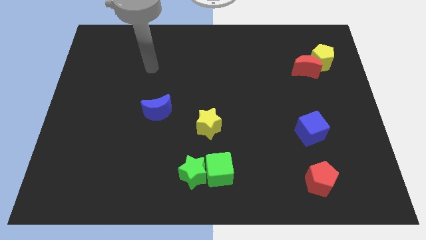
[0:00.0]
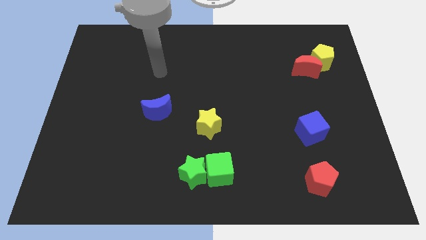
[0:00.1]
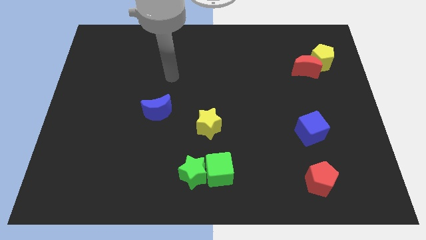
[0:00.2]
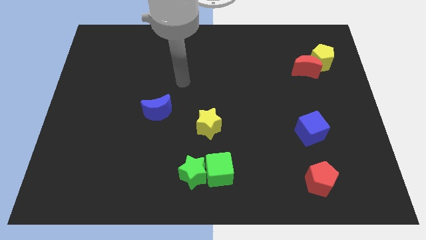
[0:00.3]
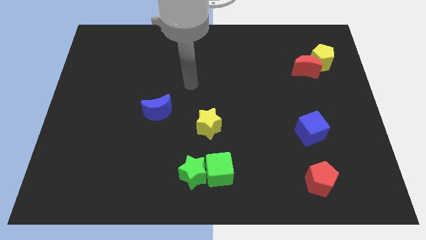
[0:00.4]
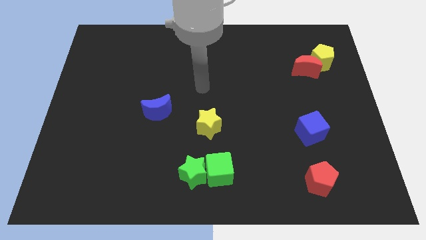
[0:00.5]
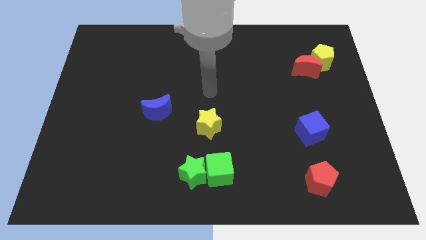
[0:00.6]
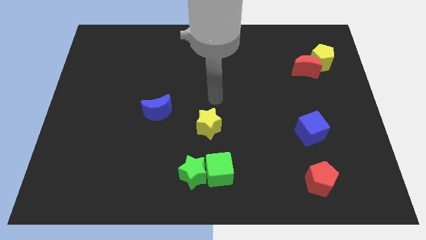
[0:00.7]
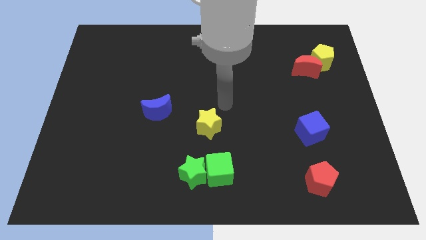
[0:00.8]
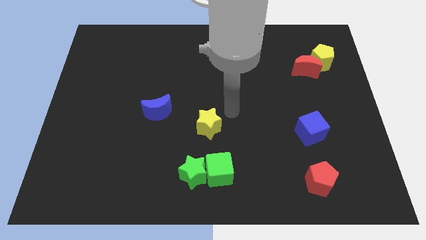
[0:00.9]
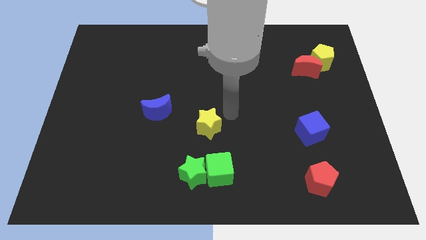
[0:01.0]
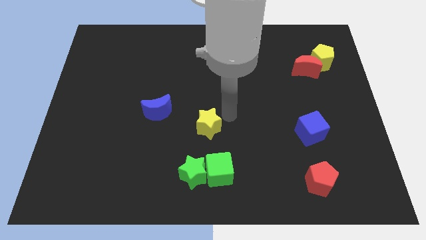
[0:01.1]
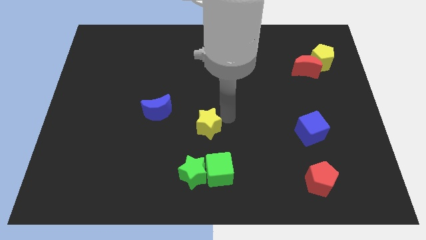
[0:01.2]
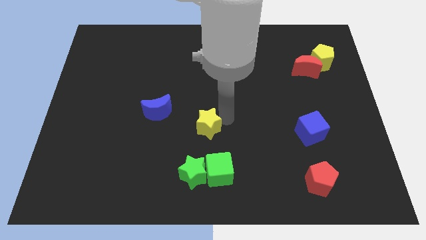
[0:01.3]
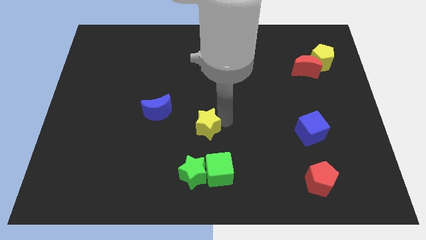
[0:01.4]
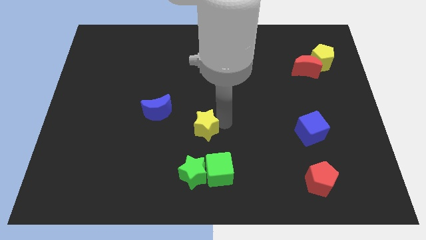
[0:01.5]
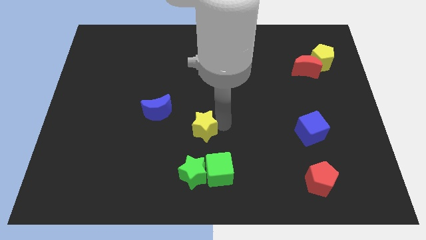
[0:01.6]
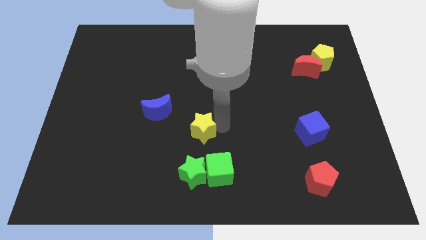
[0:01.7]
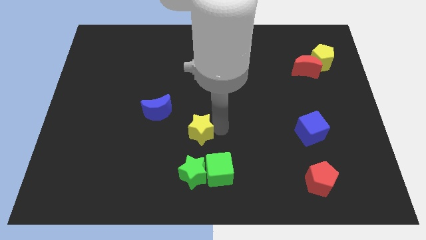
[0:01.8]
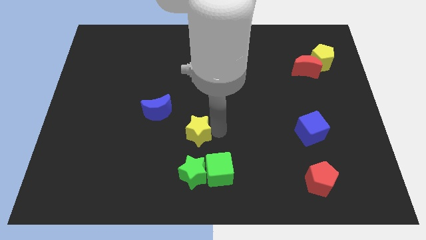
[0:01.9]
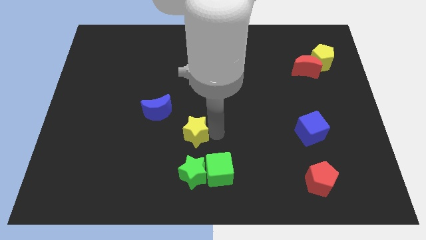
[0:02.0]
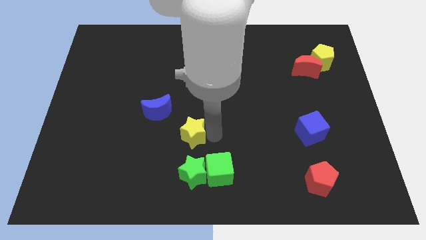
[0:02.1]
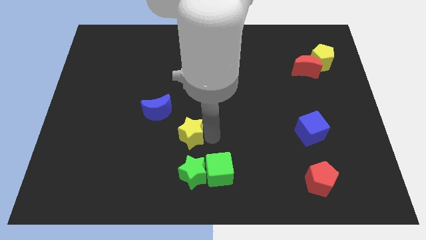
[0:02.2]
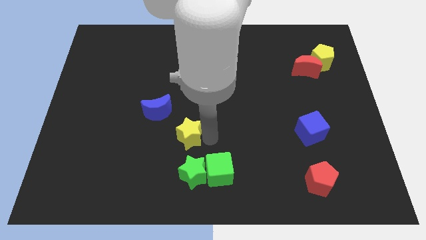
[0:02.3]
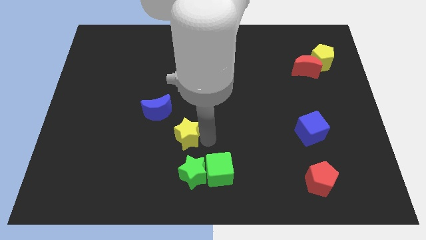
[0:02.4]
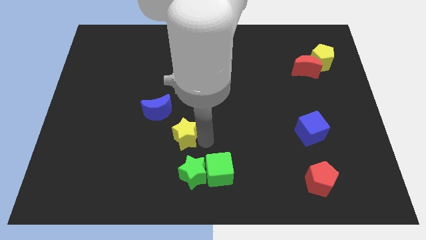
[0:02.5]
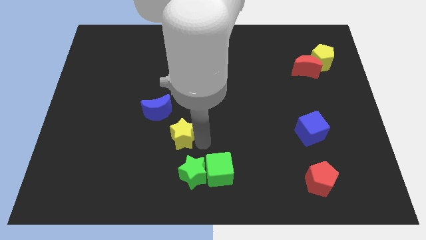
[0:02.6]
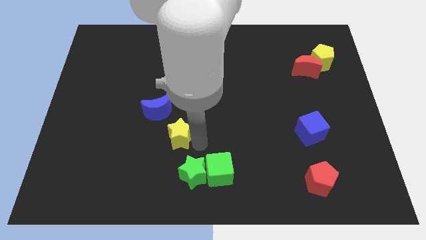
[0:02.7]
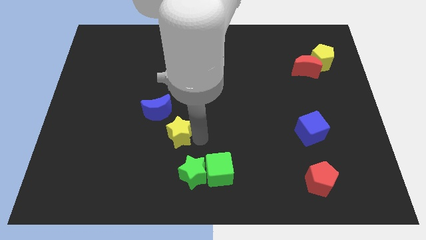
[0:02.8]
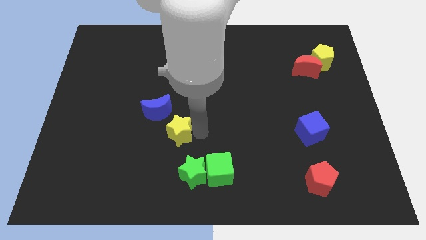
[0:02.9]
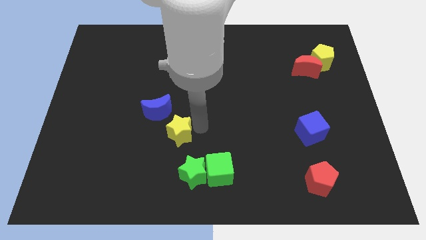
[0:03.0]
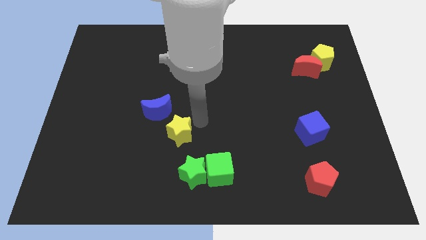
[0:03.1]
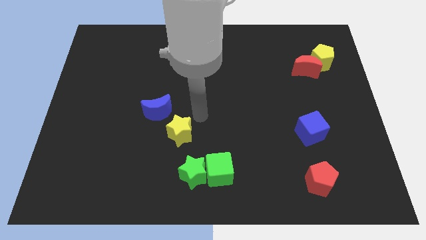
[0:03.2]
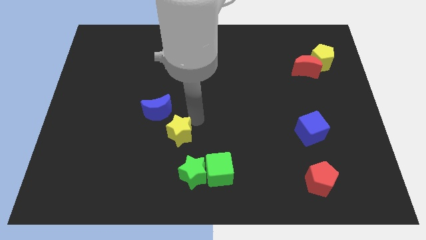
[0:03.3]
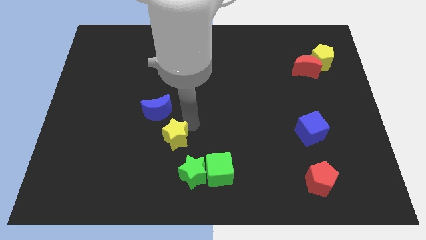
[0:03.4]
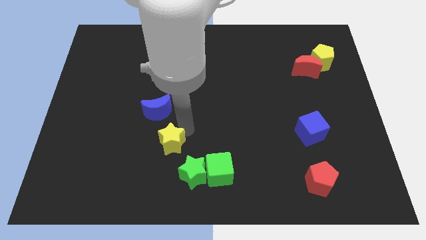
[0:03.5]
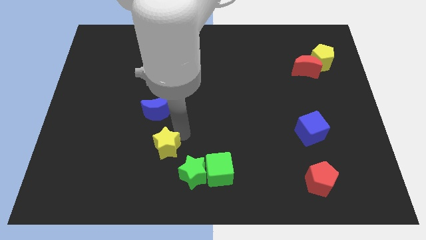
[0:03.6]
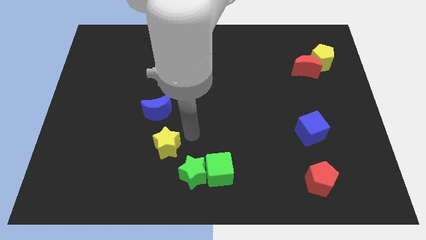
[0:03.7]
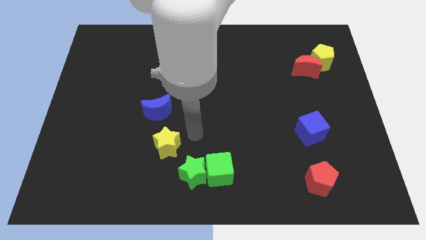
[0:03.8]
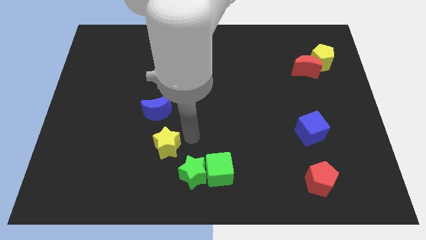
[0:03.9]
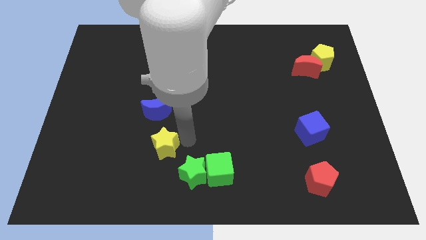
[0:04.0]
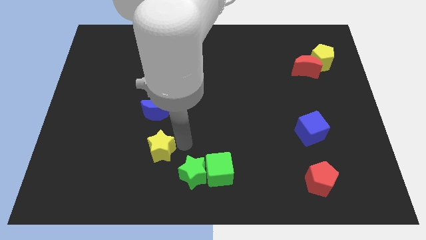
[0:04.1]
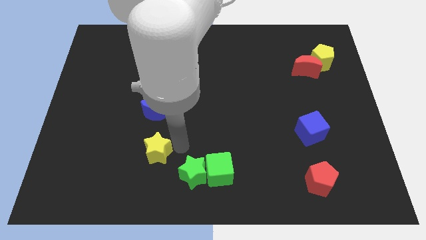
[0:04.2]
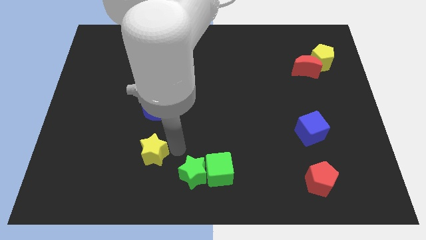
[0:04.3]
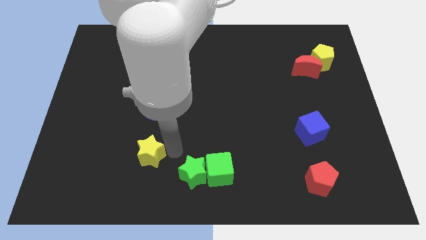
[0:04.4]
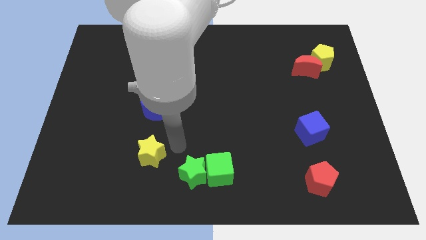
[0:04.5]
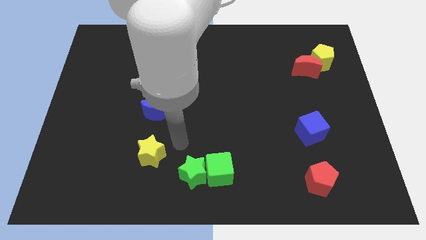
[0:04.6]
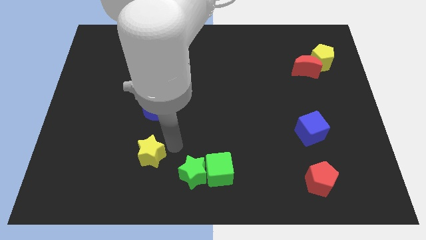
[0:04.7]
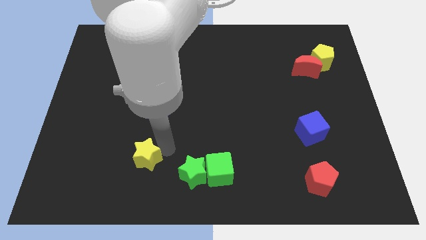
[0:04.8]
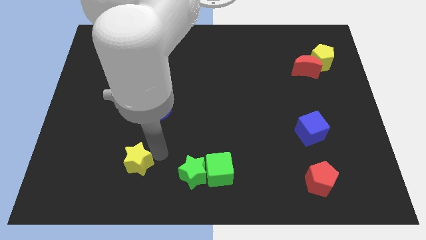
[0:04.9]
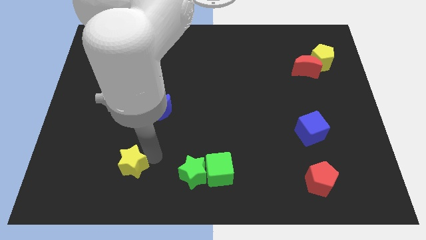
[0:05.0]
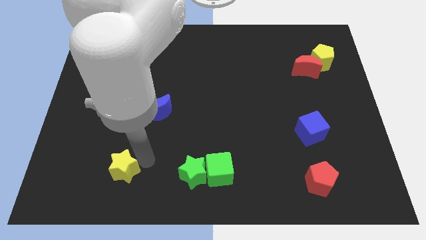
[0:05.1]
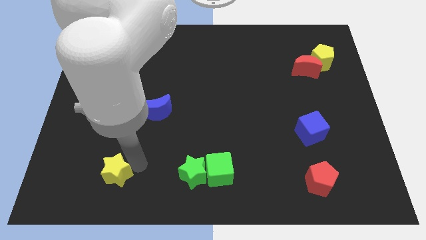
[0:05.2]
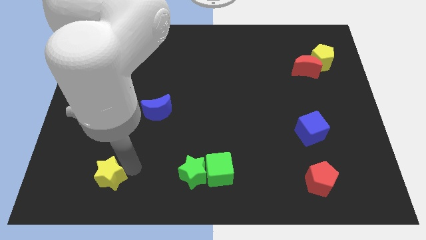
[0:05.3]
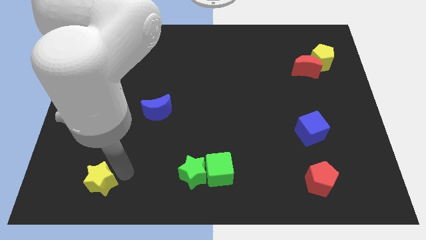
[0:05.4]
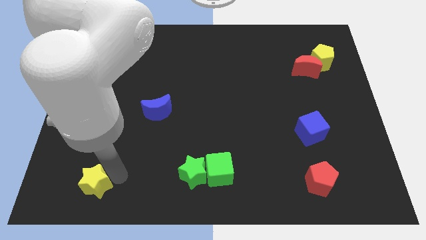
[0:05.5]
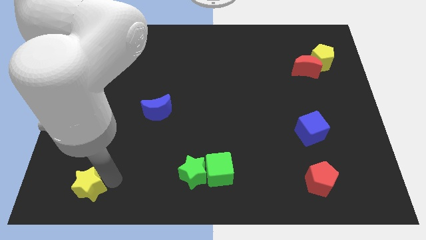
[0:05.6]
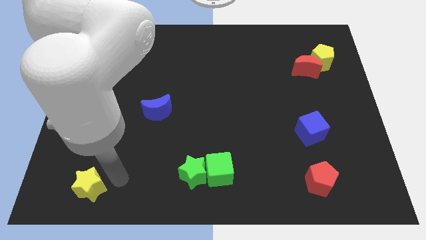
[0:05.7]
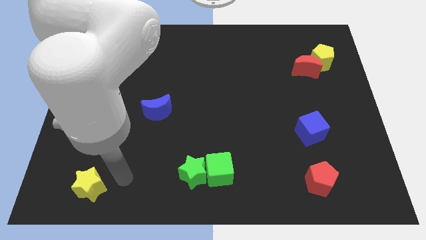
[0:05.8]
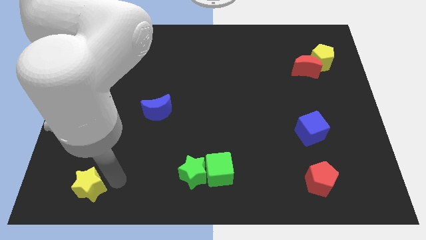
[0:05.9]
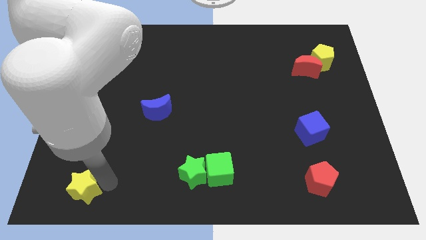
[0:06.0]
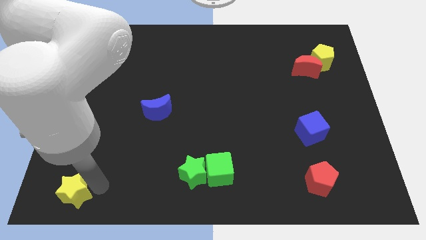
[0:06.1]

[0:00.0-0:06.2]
move the yellow star to the bottom left of the board
